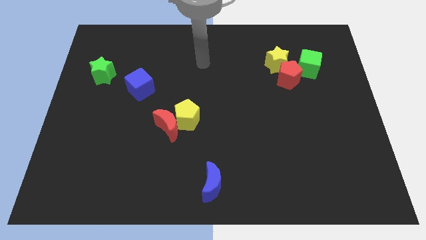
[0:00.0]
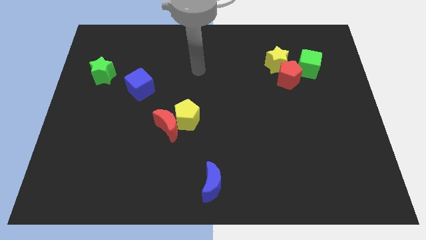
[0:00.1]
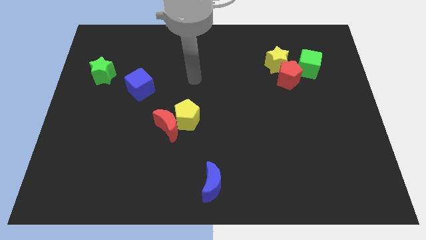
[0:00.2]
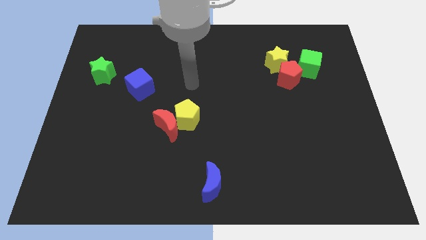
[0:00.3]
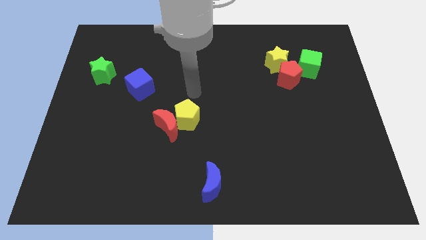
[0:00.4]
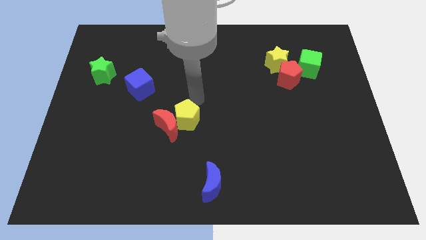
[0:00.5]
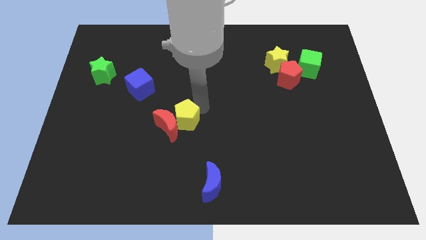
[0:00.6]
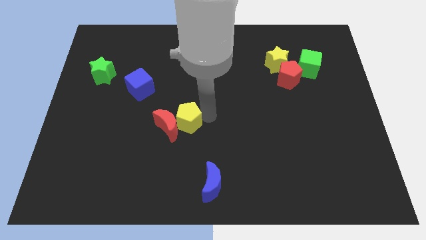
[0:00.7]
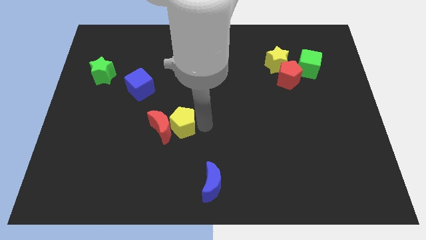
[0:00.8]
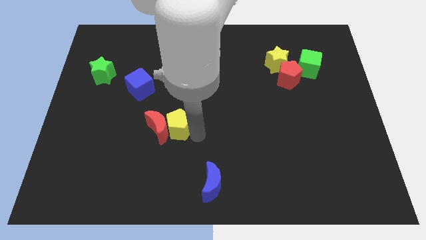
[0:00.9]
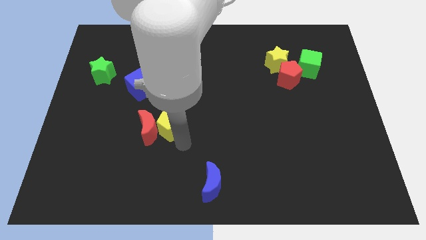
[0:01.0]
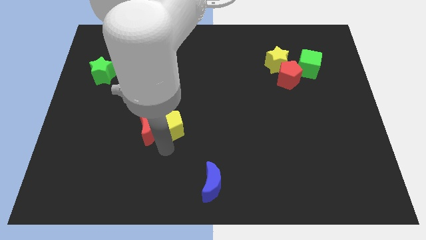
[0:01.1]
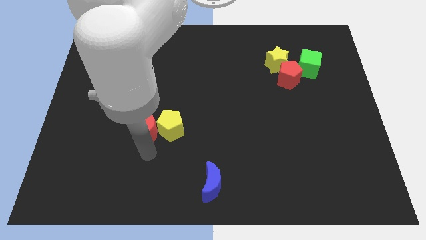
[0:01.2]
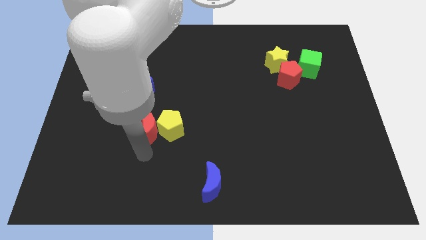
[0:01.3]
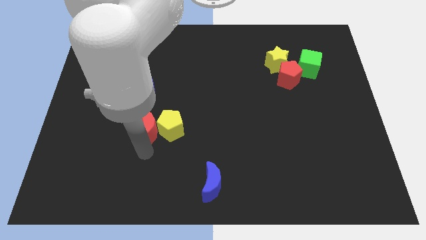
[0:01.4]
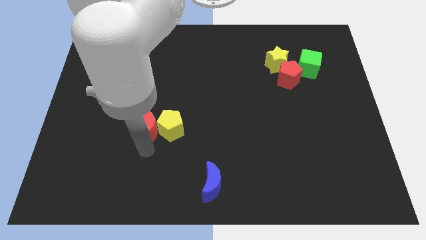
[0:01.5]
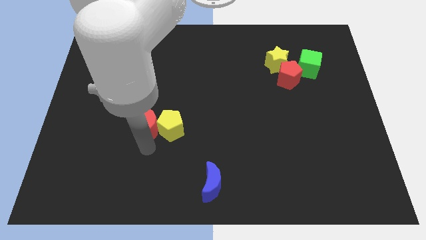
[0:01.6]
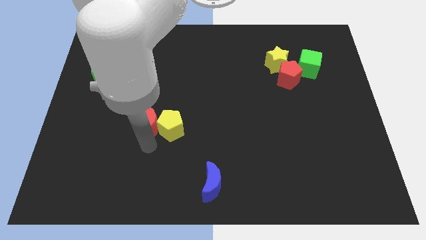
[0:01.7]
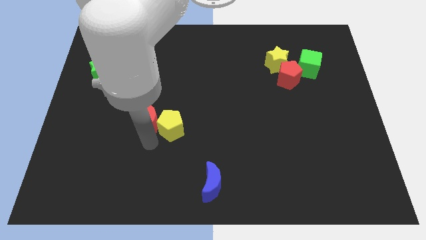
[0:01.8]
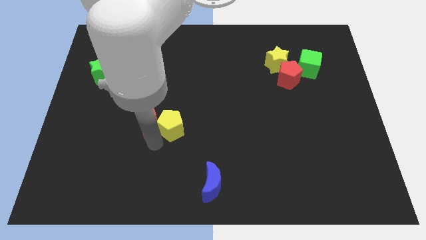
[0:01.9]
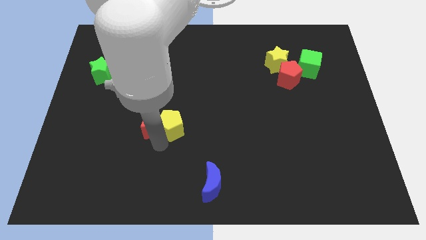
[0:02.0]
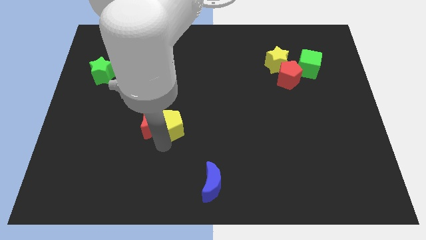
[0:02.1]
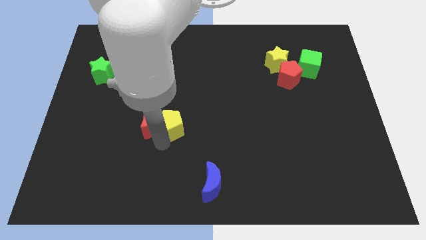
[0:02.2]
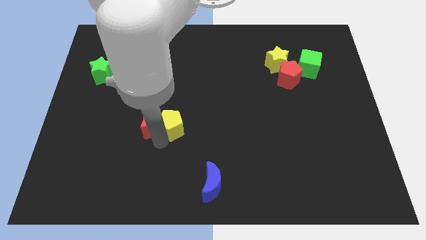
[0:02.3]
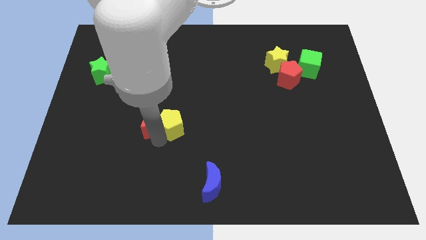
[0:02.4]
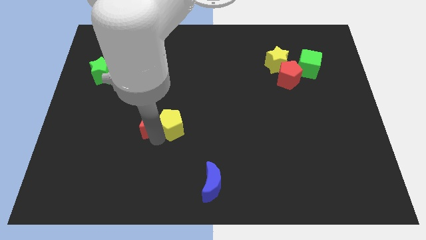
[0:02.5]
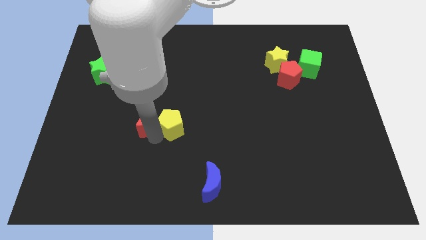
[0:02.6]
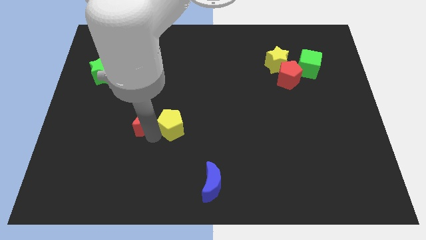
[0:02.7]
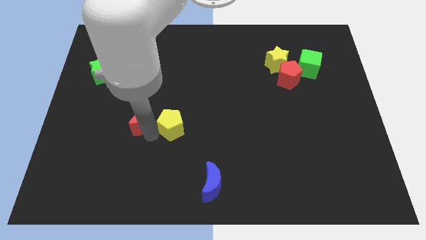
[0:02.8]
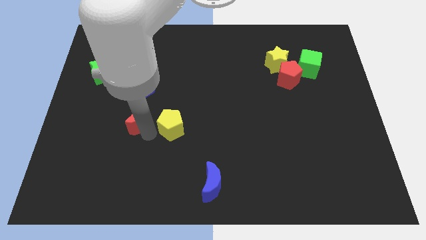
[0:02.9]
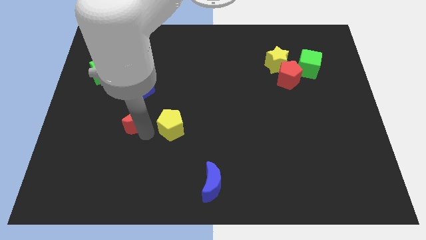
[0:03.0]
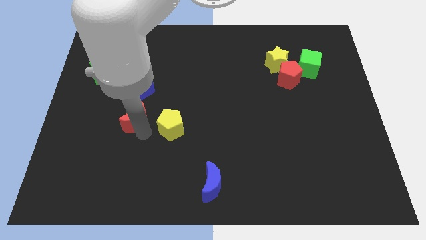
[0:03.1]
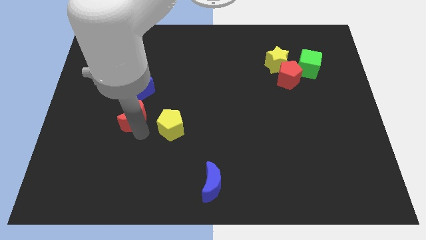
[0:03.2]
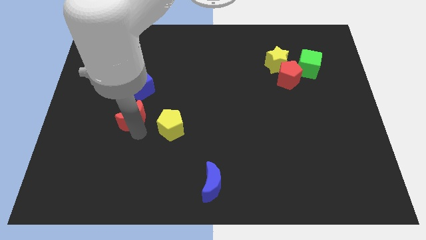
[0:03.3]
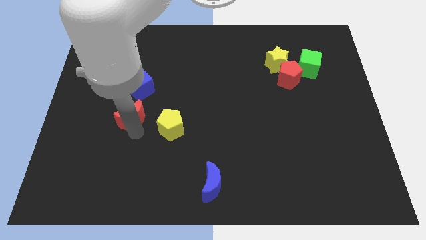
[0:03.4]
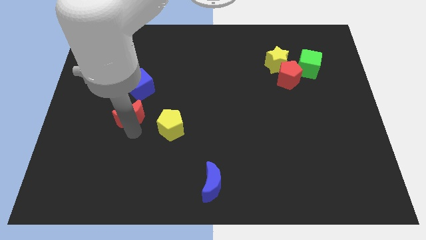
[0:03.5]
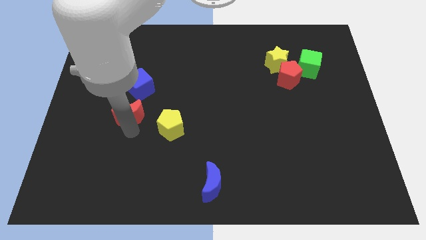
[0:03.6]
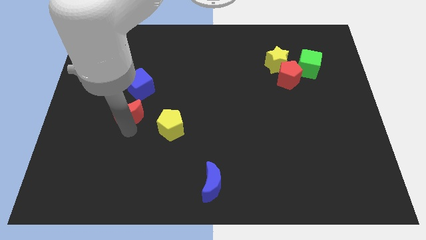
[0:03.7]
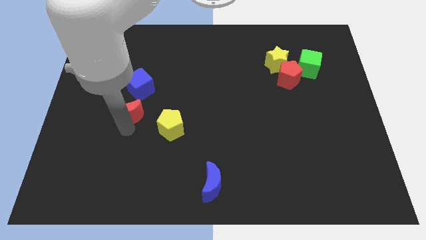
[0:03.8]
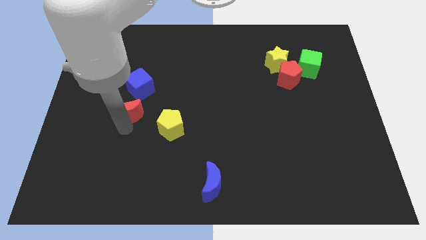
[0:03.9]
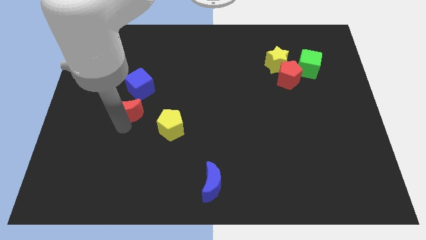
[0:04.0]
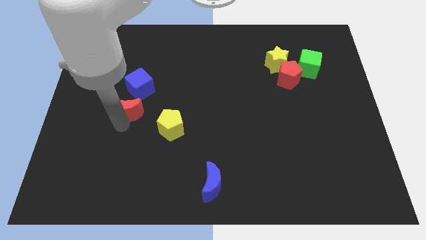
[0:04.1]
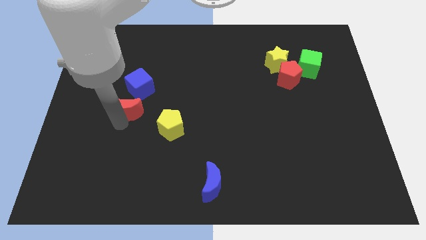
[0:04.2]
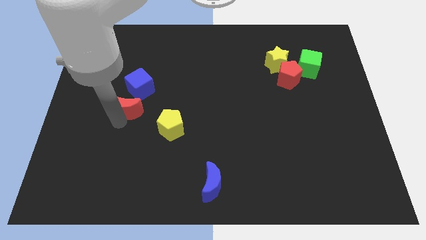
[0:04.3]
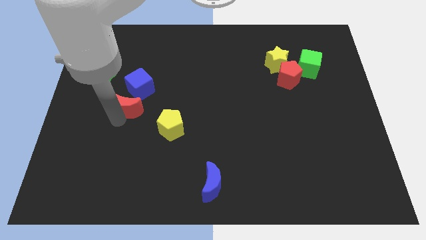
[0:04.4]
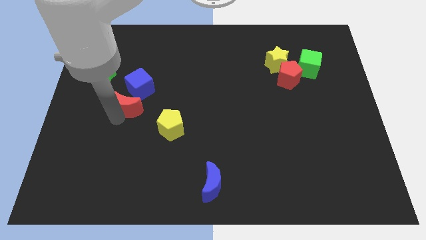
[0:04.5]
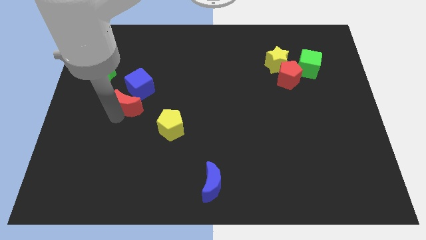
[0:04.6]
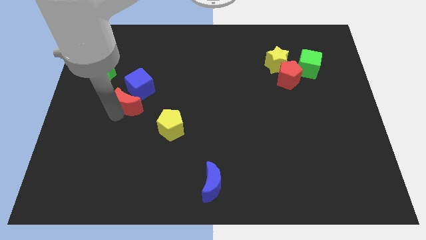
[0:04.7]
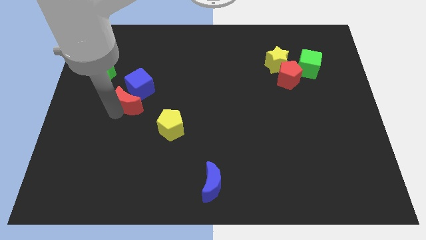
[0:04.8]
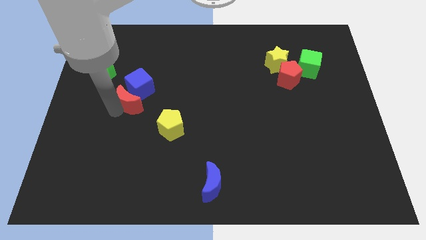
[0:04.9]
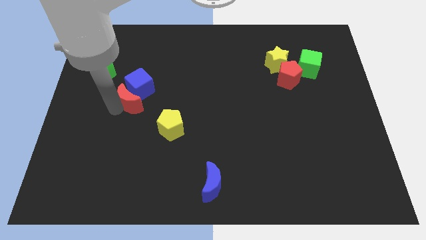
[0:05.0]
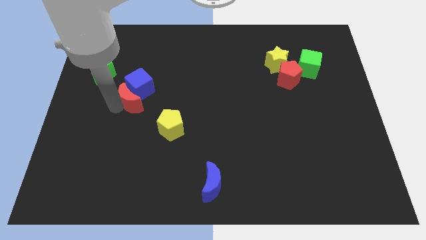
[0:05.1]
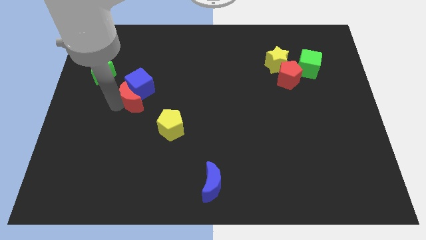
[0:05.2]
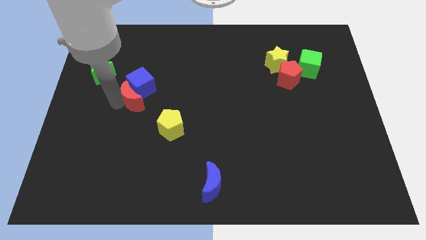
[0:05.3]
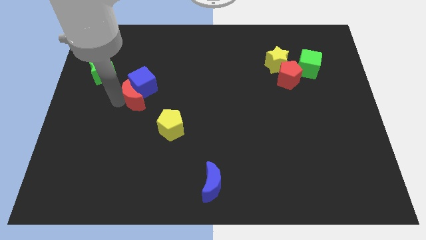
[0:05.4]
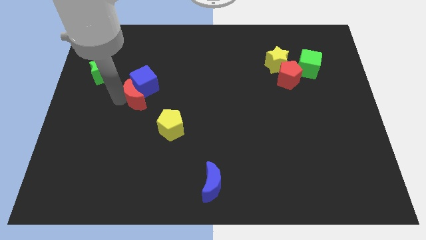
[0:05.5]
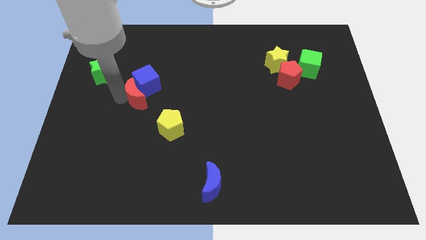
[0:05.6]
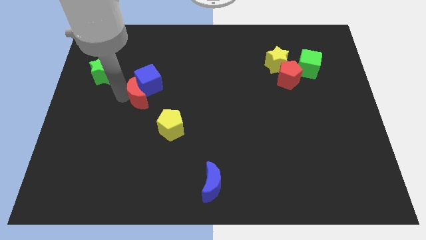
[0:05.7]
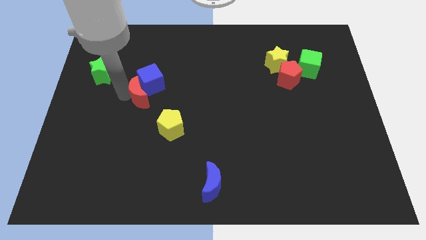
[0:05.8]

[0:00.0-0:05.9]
move the red moon to the left of the blue cube

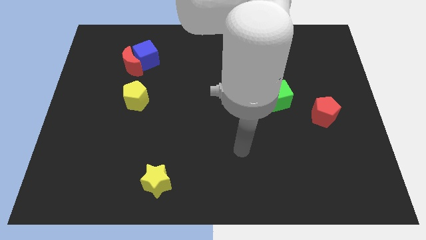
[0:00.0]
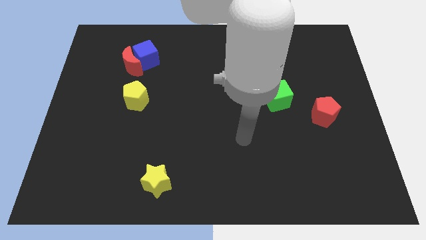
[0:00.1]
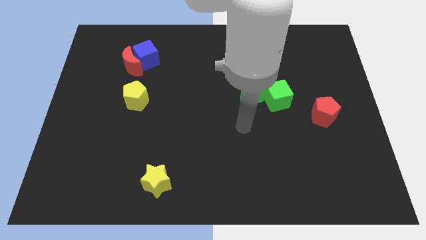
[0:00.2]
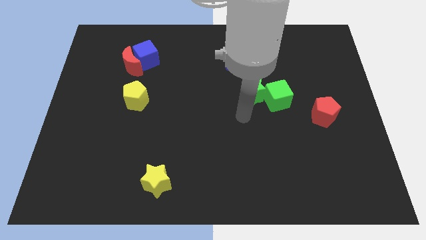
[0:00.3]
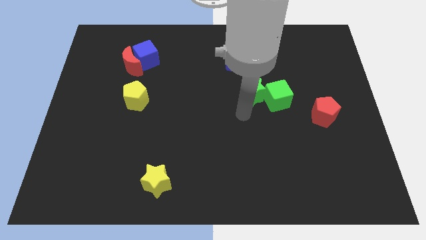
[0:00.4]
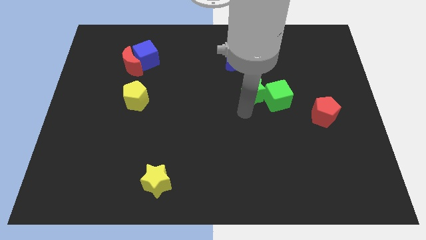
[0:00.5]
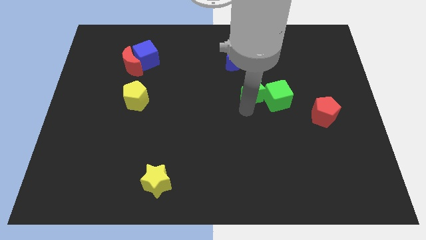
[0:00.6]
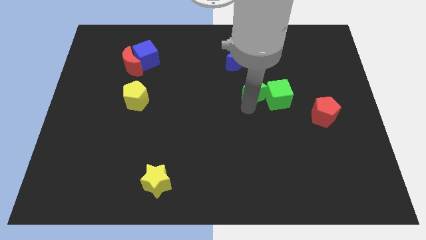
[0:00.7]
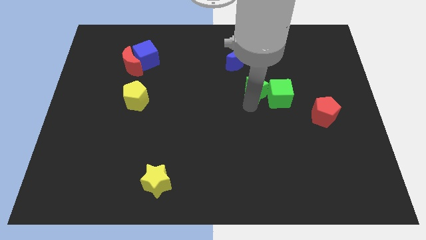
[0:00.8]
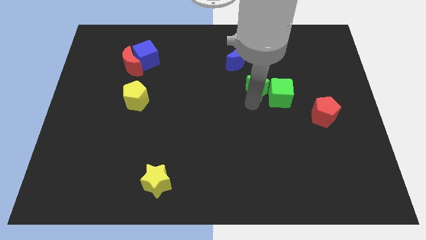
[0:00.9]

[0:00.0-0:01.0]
push the green star to the bottom right side of the blue moon
